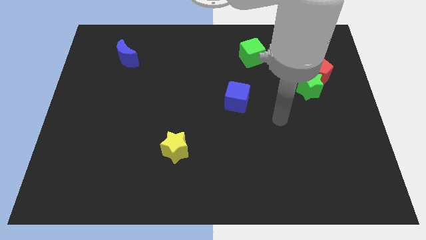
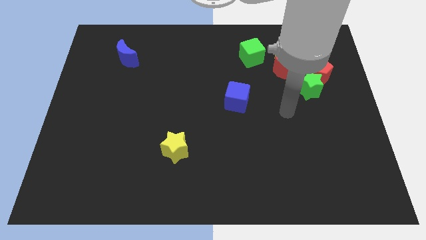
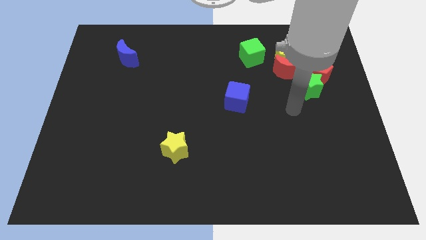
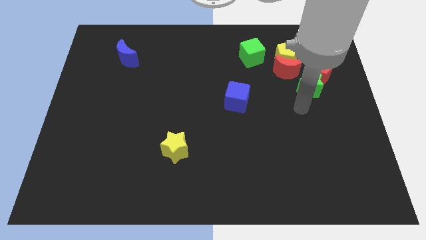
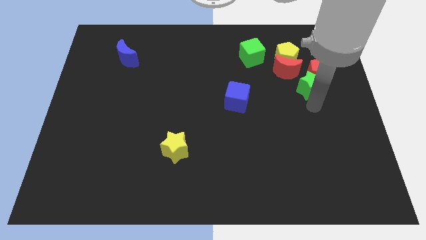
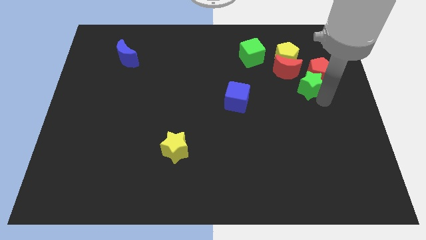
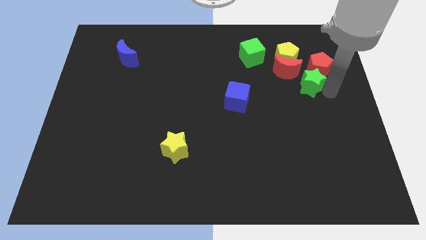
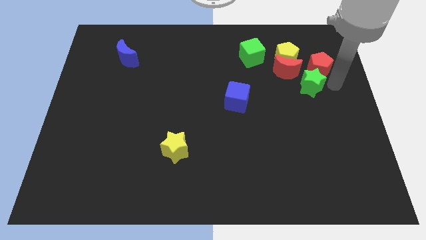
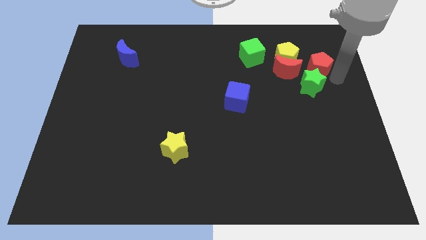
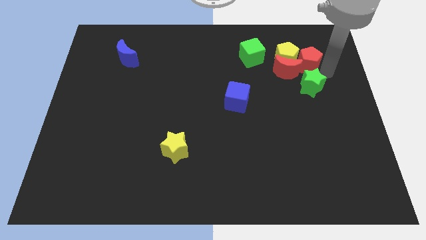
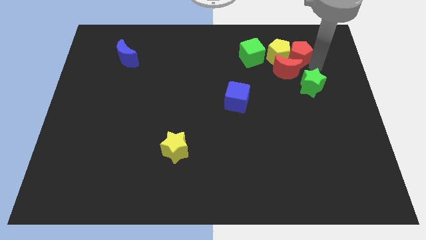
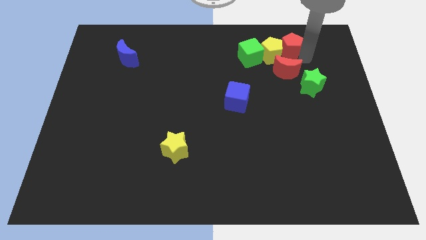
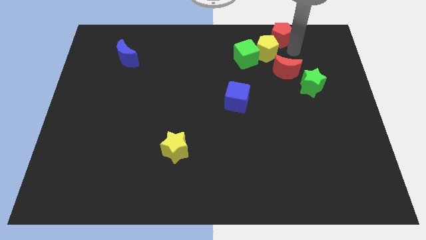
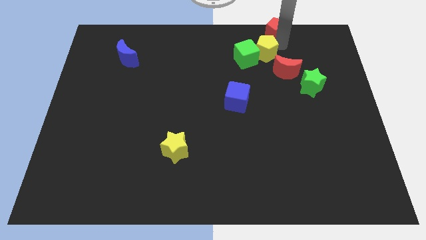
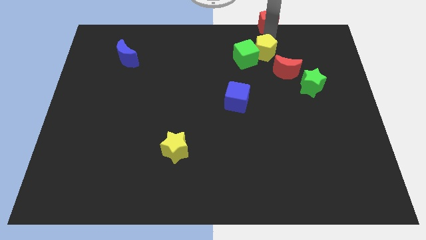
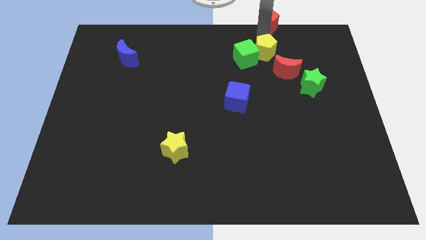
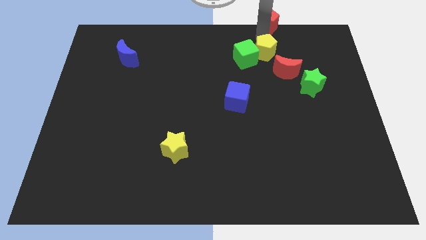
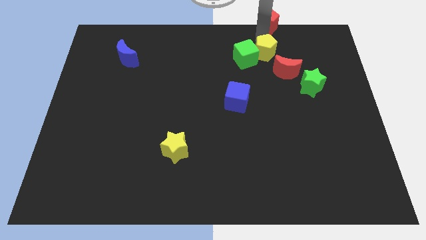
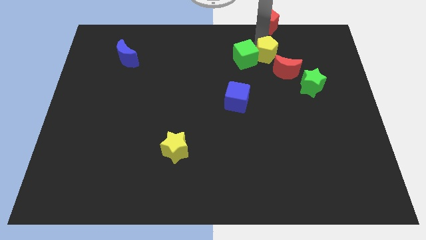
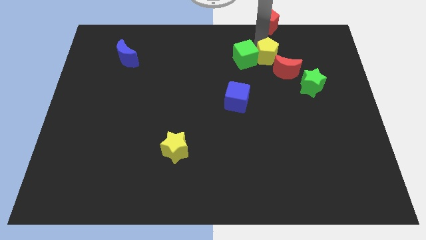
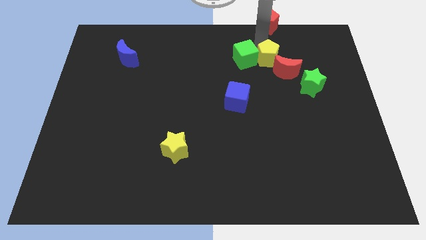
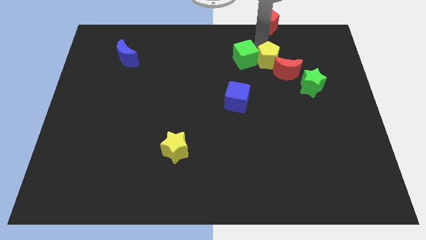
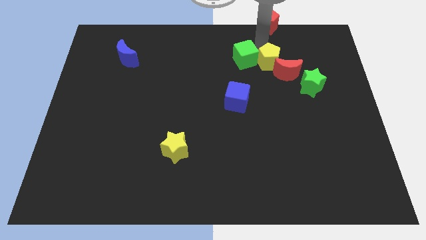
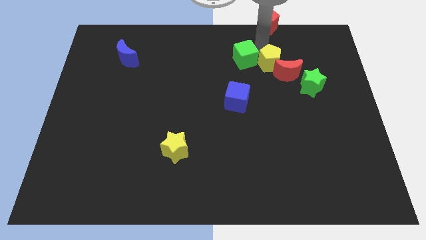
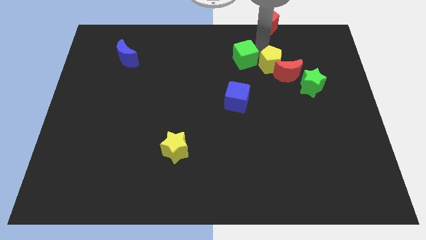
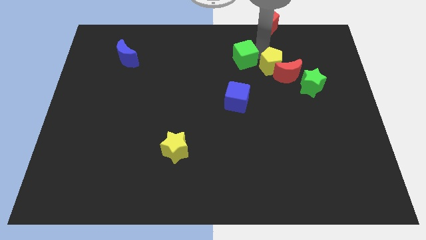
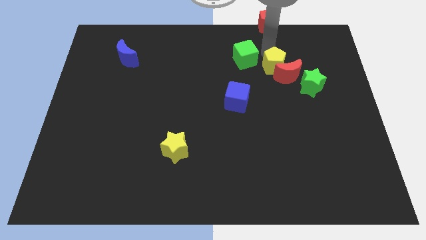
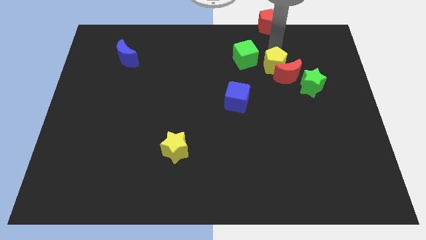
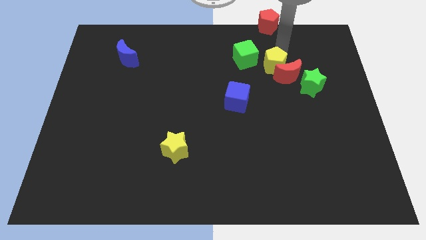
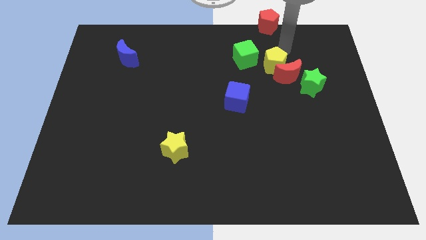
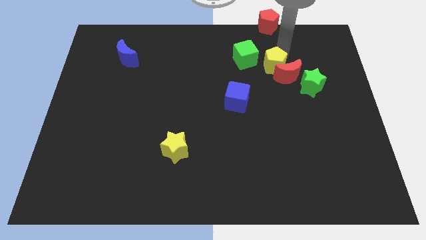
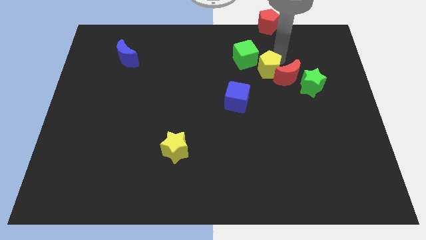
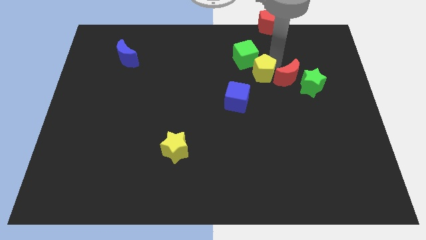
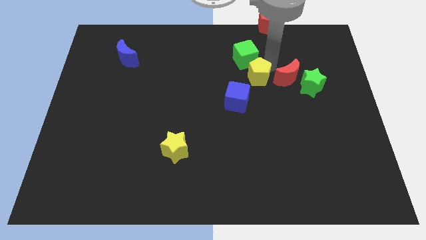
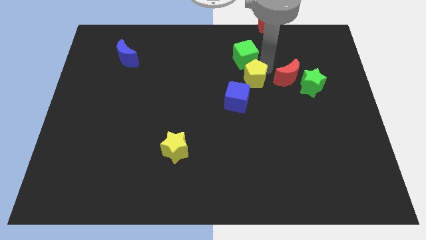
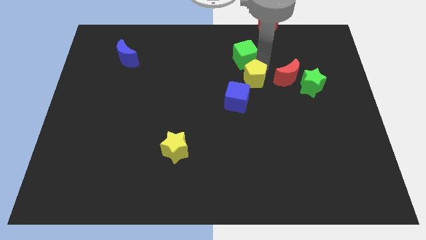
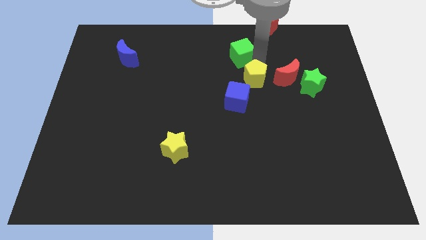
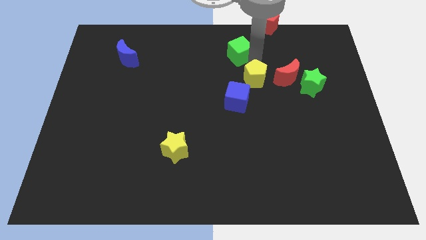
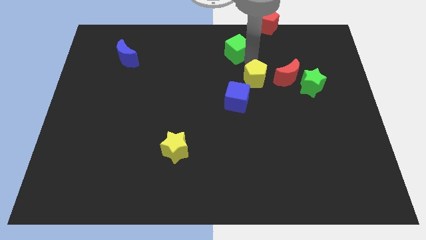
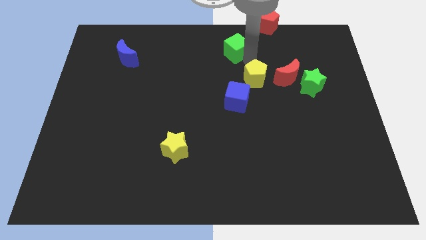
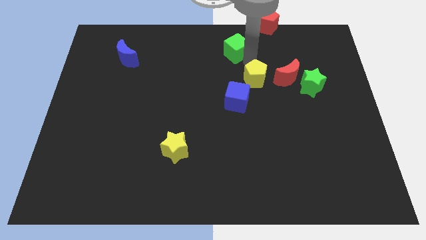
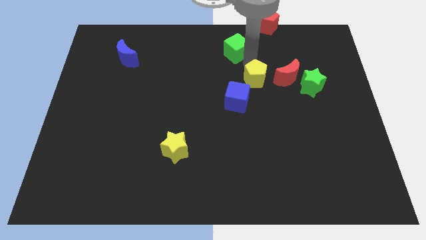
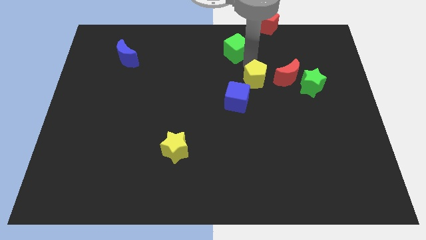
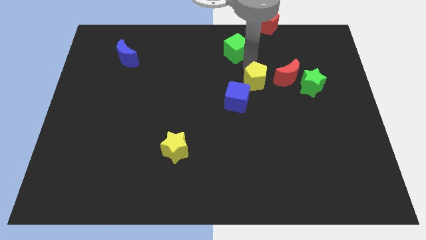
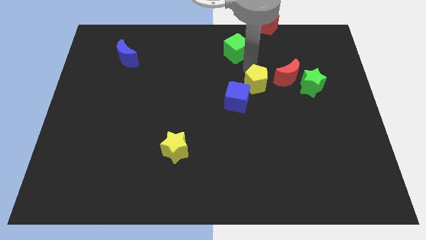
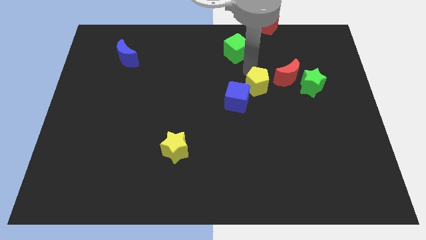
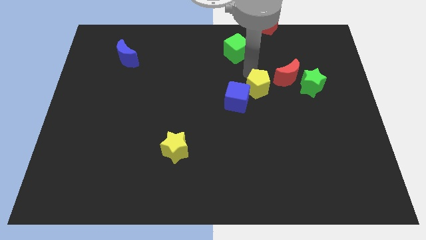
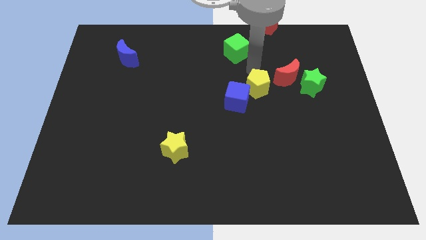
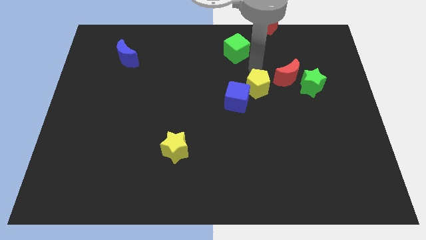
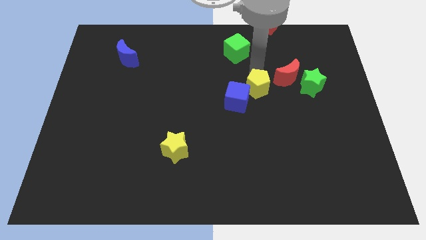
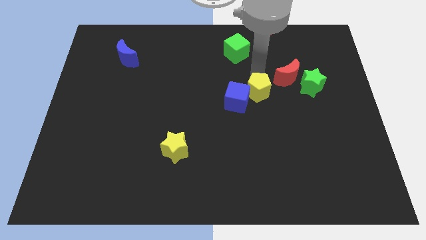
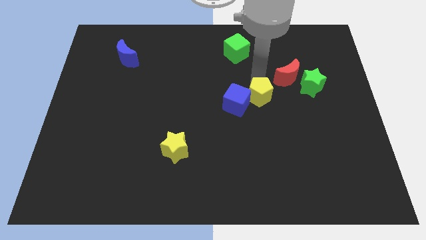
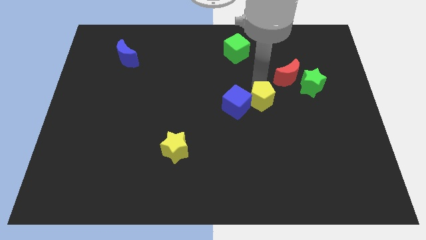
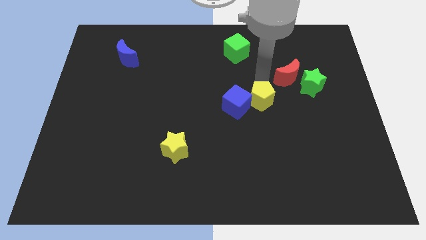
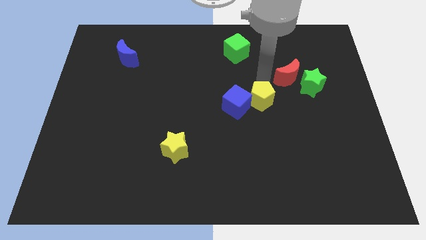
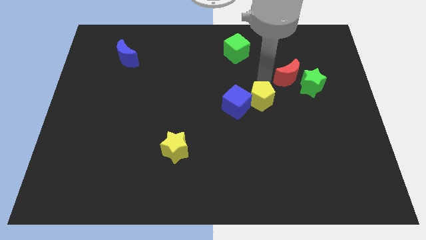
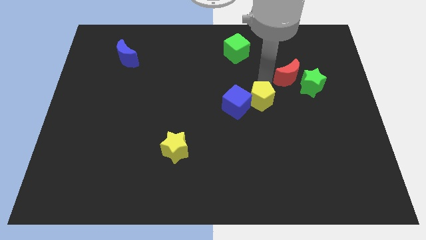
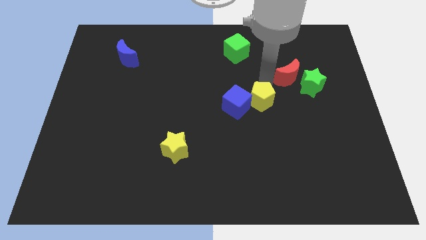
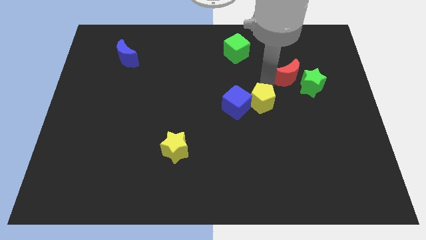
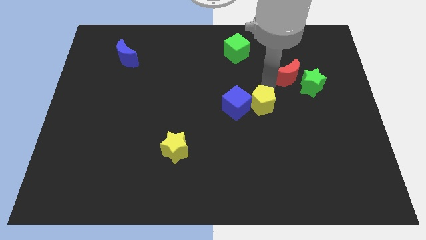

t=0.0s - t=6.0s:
move the yellow pentagon to the bottom right side of the blue cube

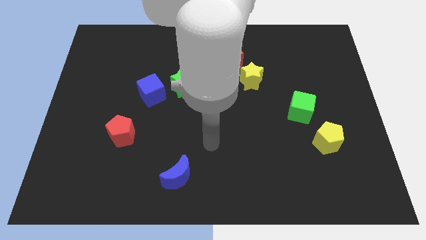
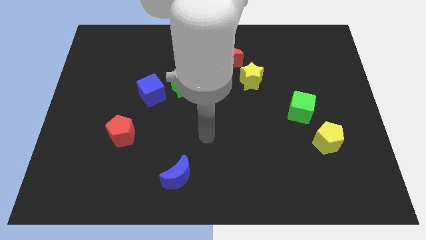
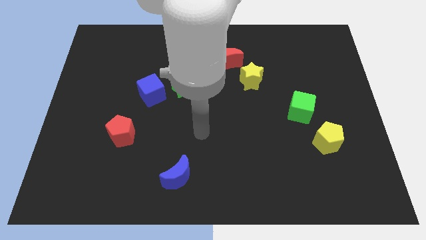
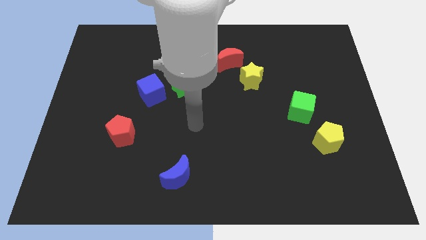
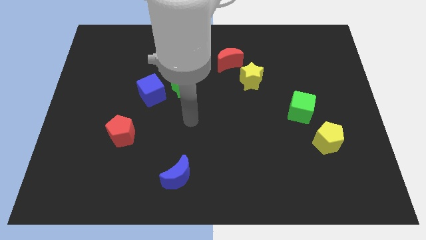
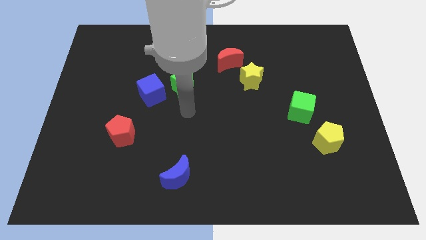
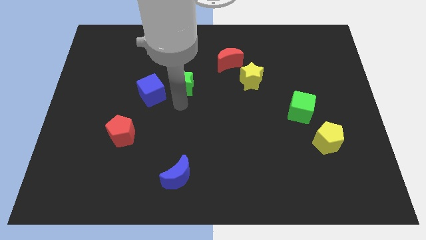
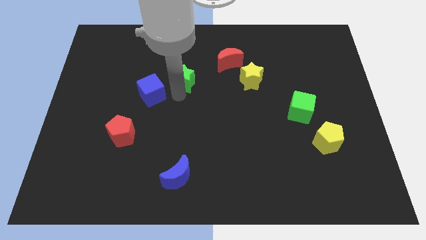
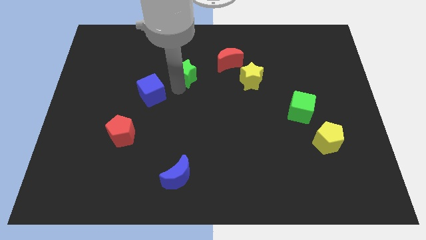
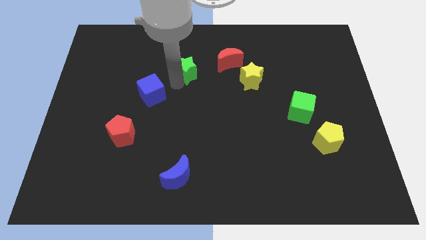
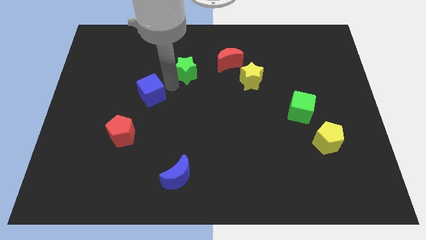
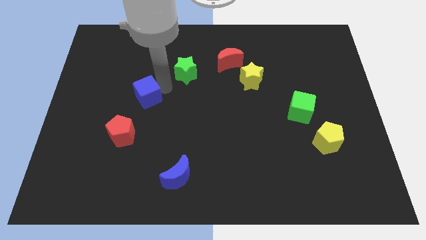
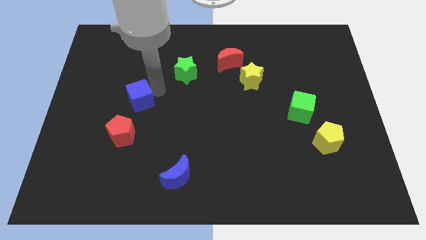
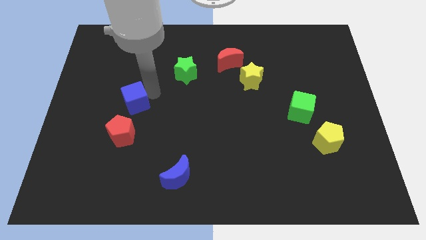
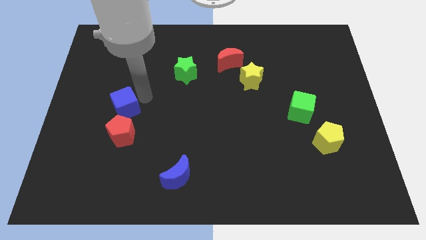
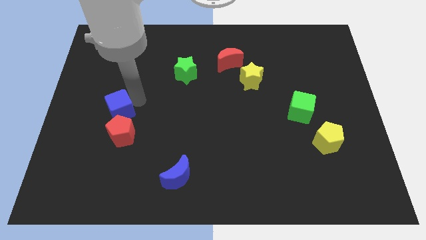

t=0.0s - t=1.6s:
push the blue cube diagonally up and to the left of the red pentagon
